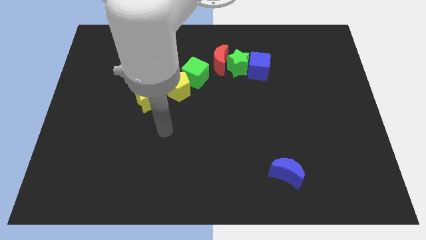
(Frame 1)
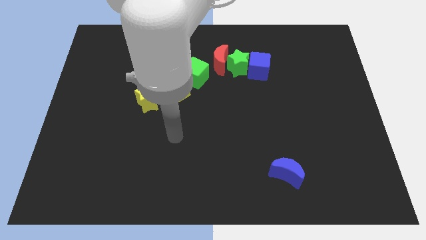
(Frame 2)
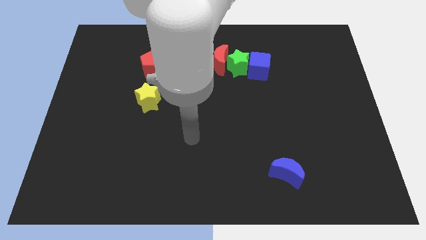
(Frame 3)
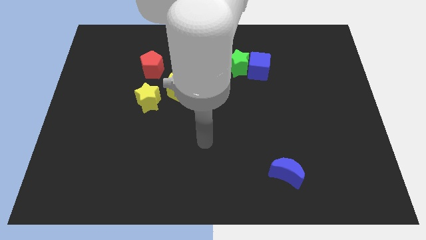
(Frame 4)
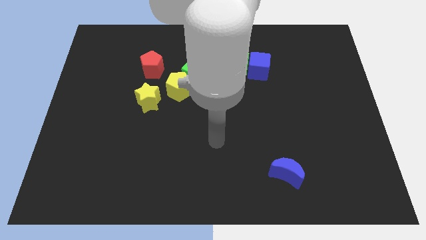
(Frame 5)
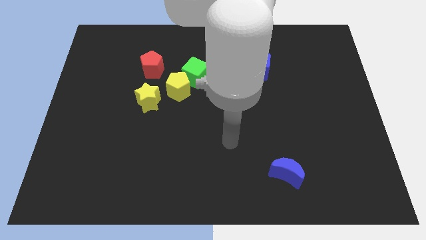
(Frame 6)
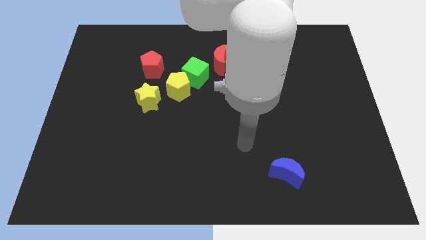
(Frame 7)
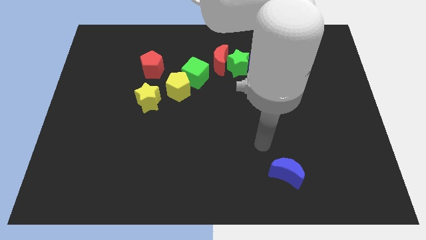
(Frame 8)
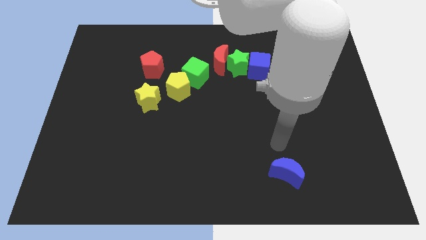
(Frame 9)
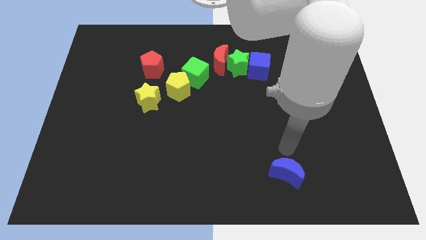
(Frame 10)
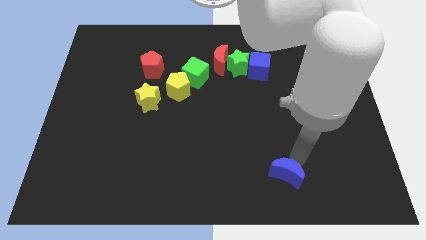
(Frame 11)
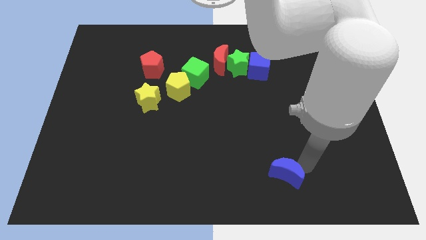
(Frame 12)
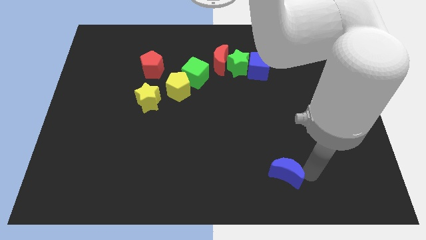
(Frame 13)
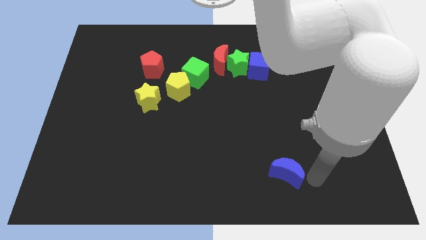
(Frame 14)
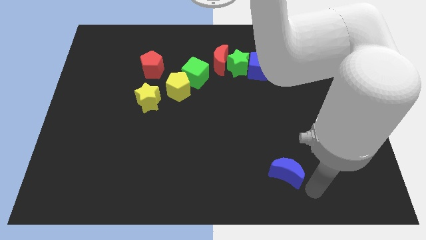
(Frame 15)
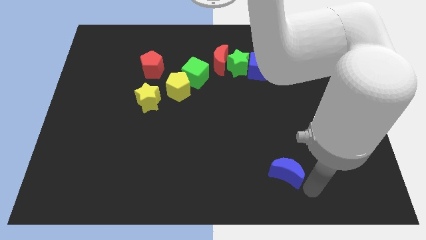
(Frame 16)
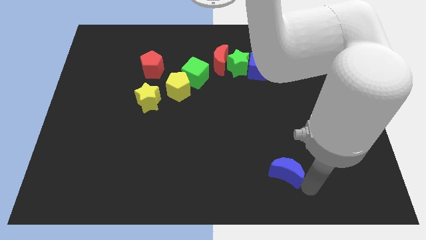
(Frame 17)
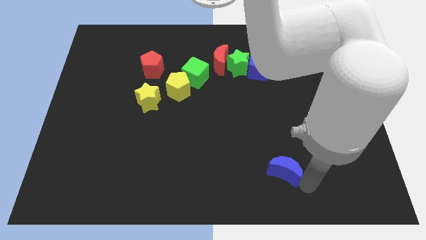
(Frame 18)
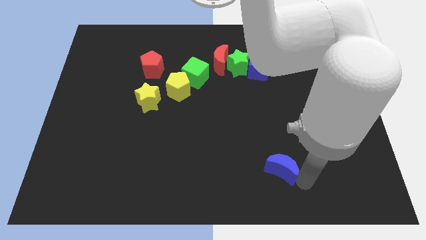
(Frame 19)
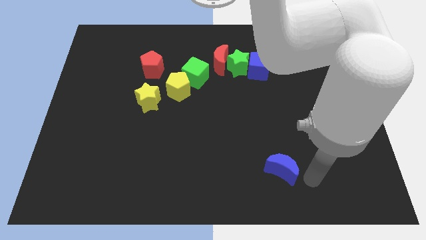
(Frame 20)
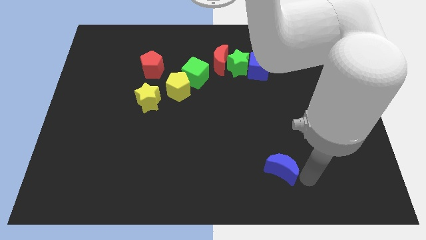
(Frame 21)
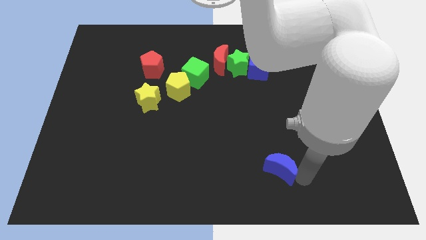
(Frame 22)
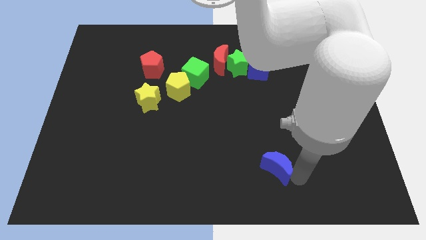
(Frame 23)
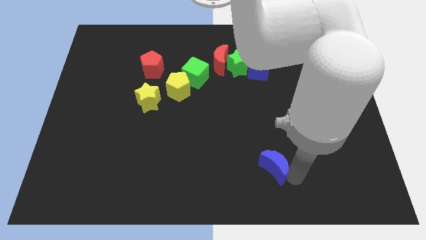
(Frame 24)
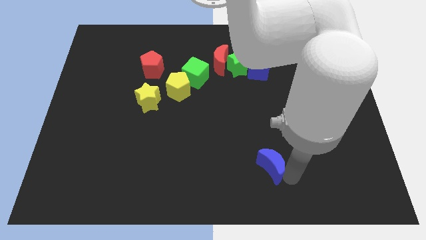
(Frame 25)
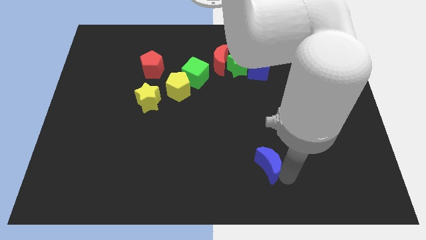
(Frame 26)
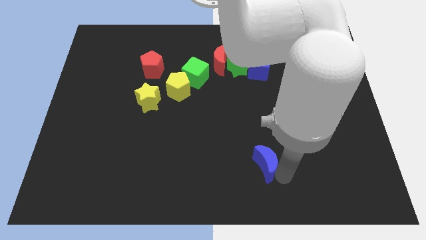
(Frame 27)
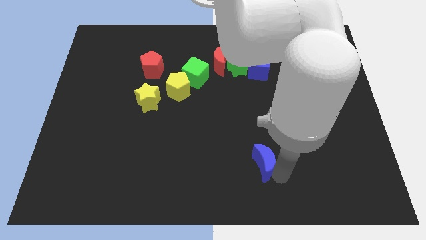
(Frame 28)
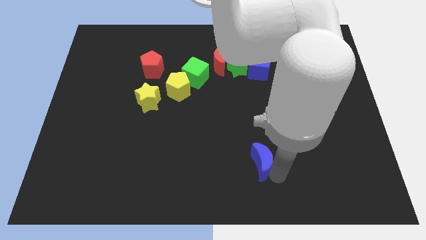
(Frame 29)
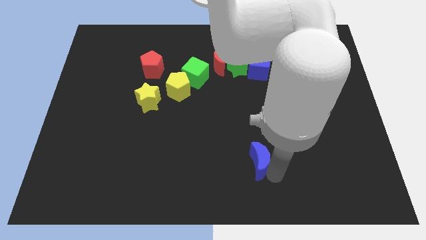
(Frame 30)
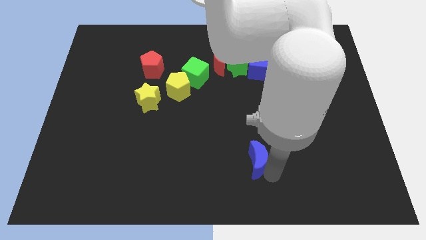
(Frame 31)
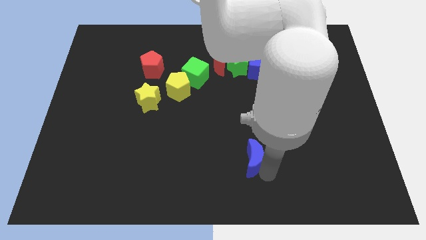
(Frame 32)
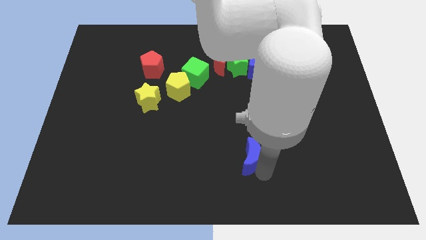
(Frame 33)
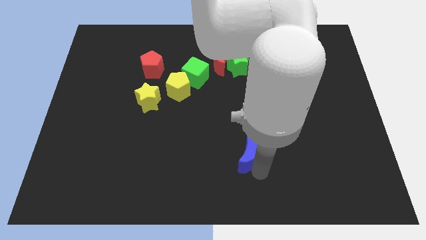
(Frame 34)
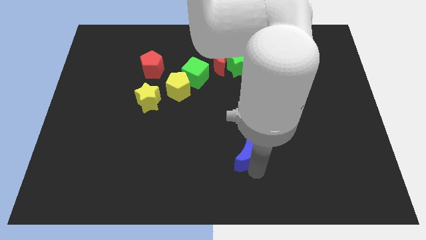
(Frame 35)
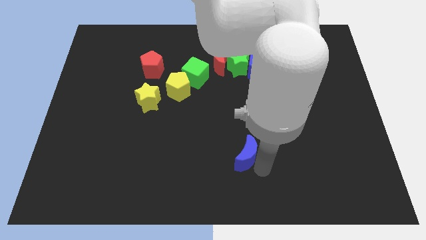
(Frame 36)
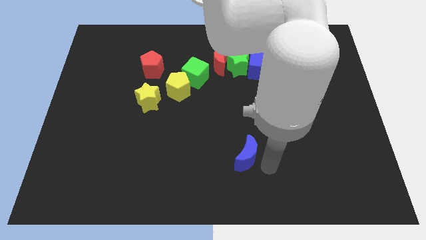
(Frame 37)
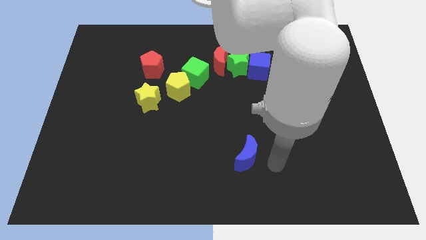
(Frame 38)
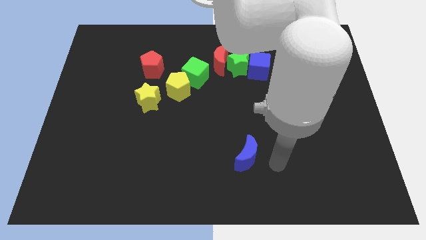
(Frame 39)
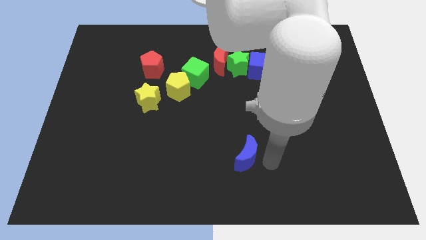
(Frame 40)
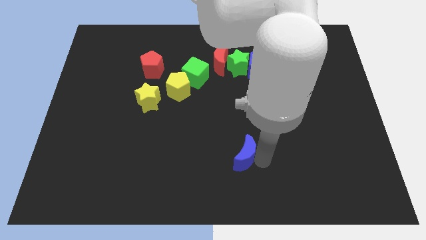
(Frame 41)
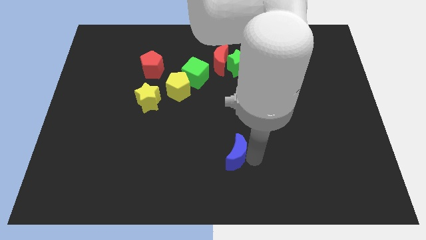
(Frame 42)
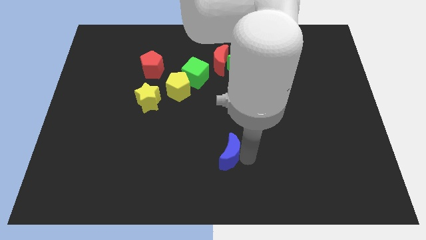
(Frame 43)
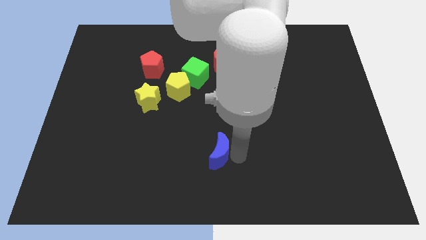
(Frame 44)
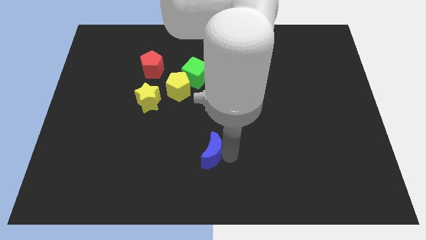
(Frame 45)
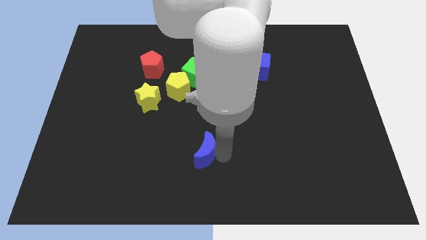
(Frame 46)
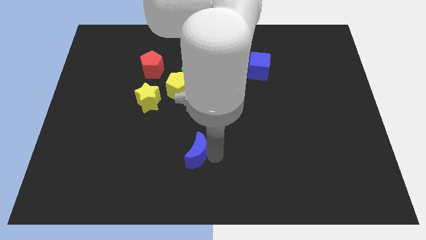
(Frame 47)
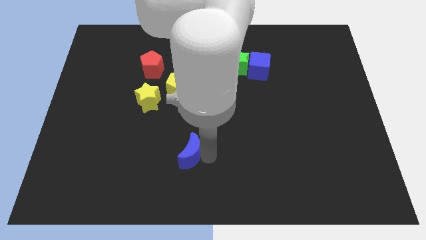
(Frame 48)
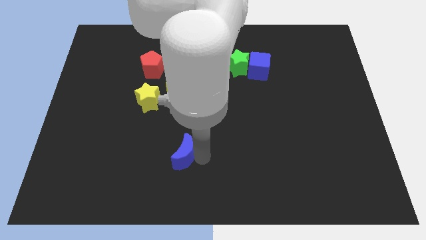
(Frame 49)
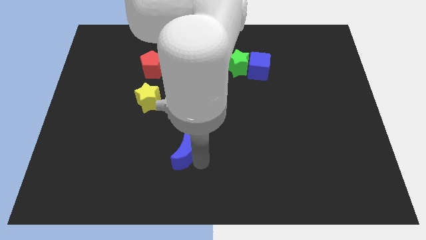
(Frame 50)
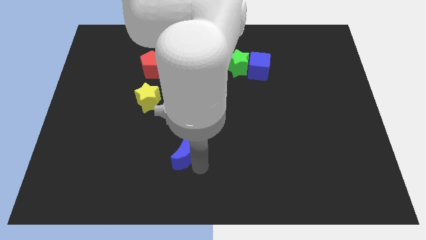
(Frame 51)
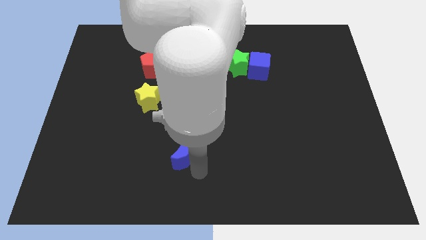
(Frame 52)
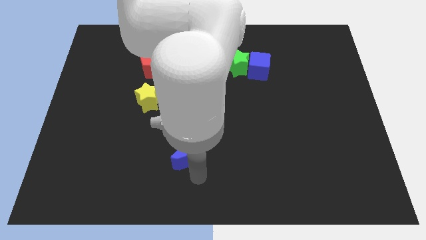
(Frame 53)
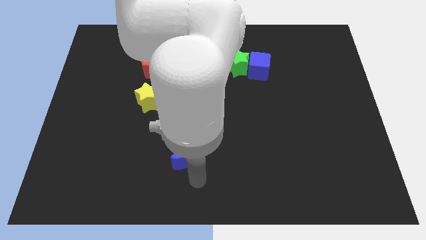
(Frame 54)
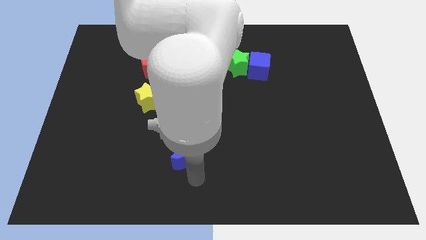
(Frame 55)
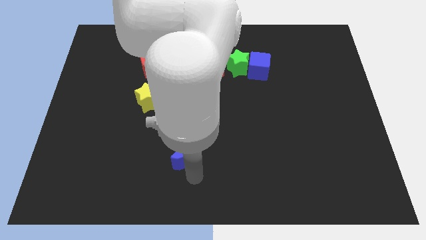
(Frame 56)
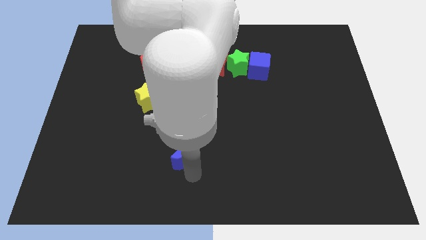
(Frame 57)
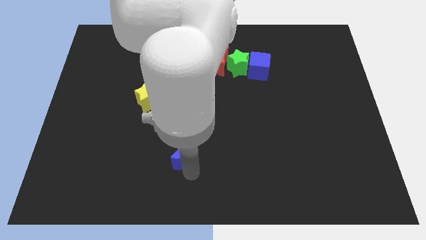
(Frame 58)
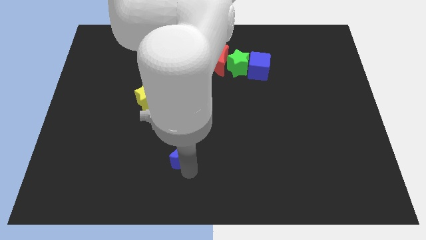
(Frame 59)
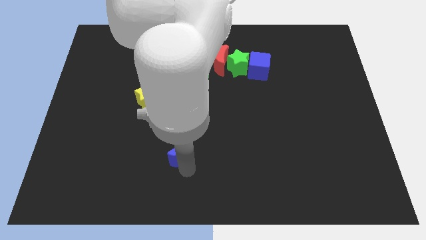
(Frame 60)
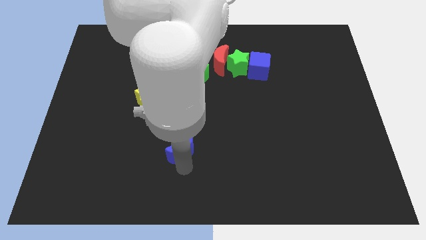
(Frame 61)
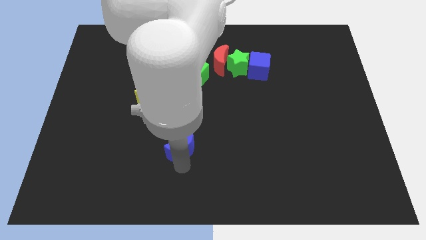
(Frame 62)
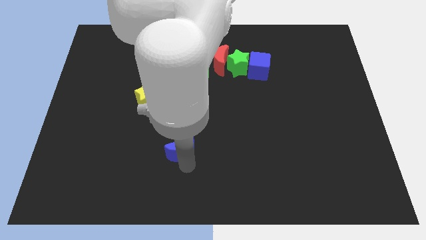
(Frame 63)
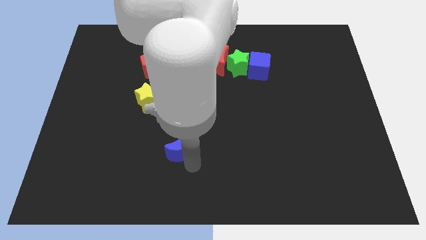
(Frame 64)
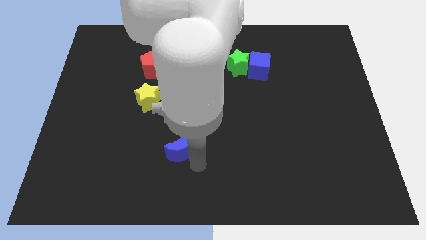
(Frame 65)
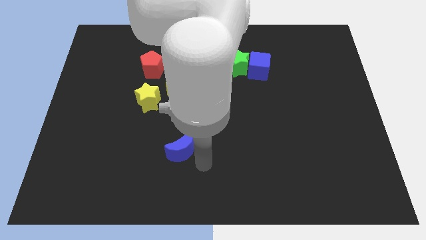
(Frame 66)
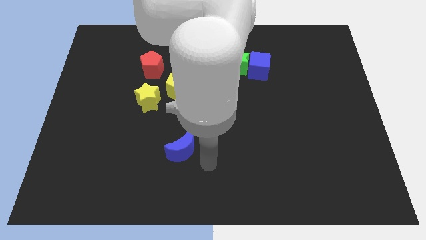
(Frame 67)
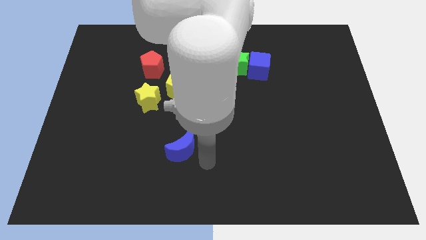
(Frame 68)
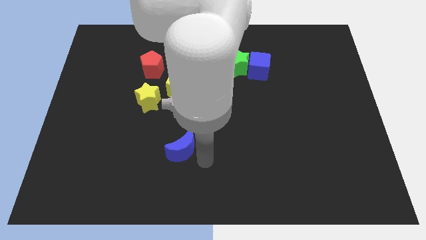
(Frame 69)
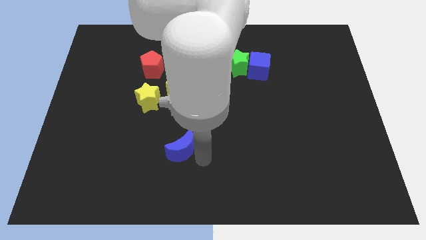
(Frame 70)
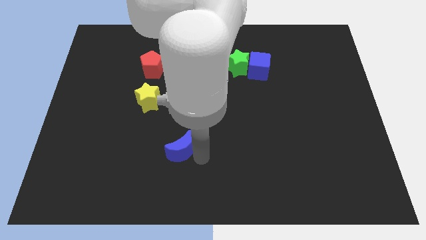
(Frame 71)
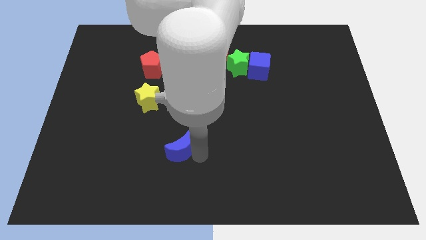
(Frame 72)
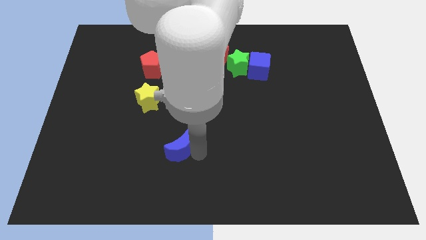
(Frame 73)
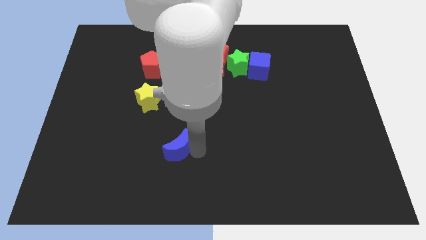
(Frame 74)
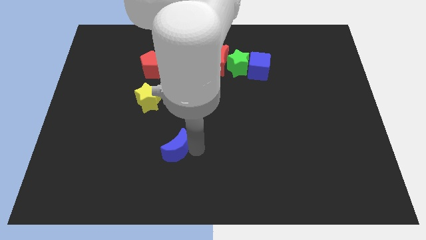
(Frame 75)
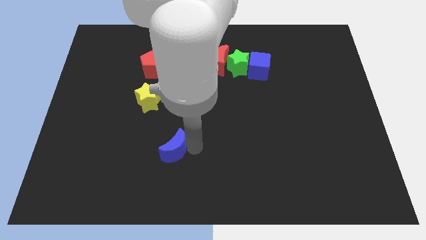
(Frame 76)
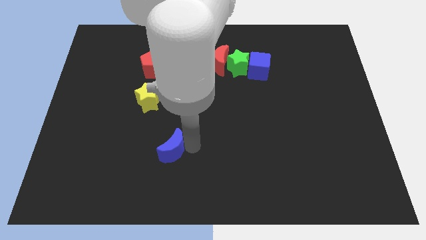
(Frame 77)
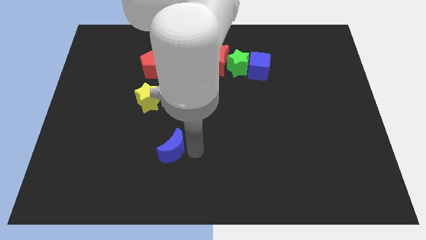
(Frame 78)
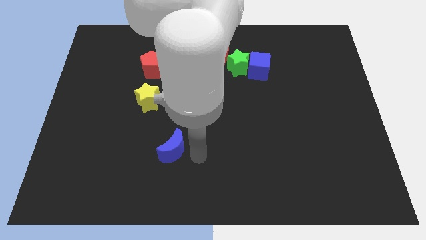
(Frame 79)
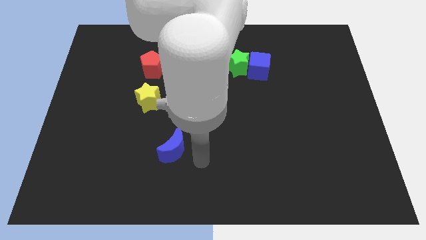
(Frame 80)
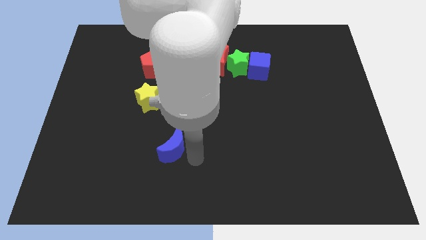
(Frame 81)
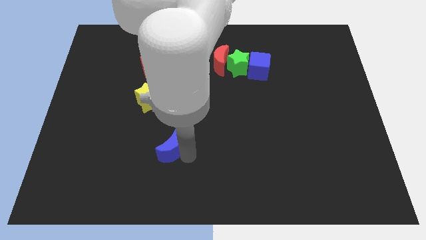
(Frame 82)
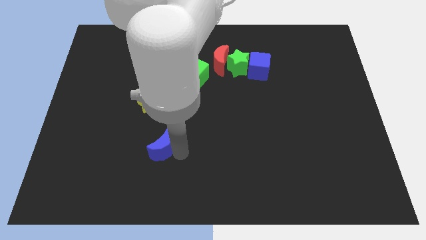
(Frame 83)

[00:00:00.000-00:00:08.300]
move the blue moon to the bottom of the yellow star
